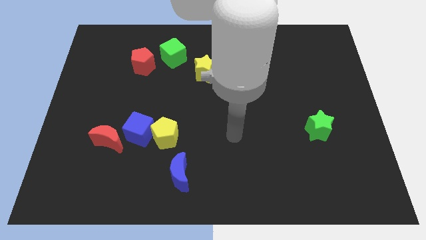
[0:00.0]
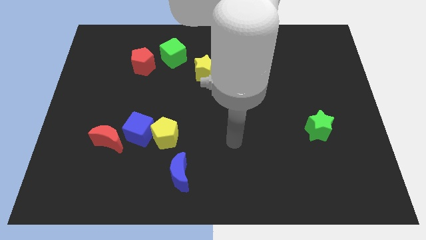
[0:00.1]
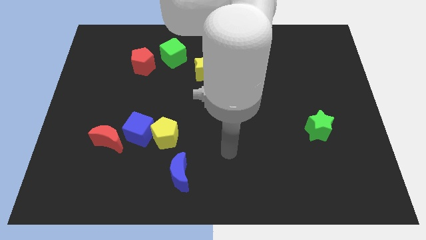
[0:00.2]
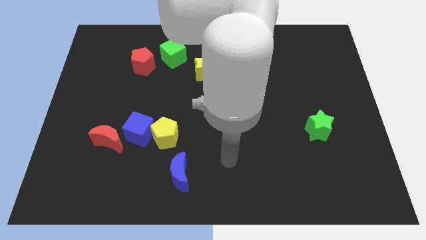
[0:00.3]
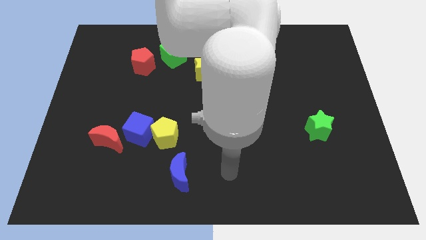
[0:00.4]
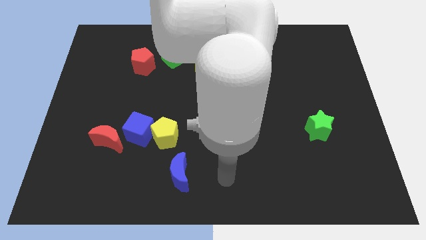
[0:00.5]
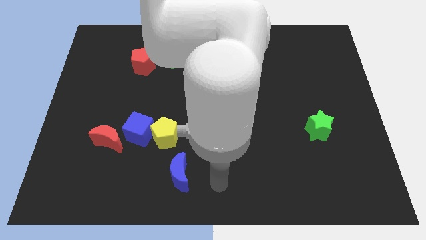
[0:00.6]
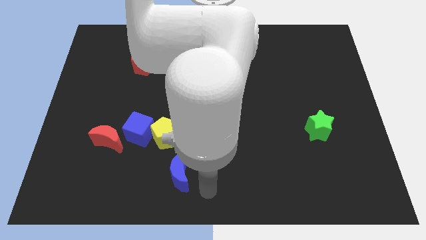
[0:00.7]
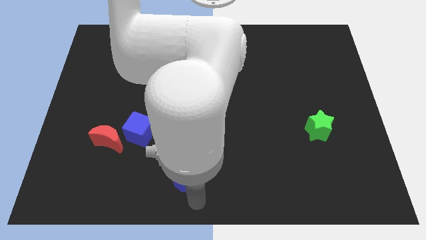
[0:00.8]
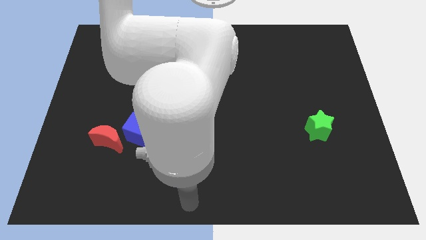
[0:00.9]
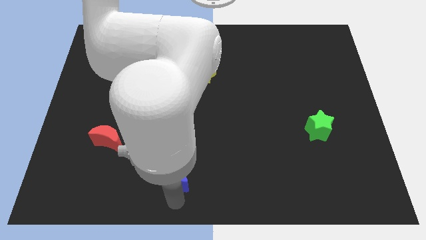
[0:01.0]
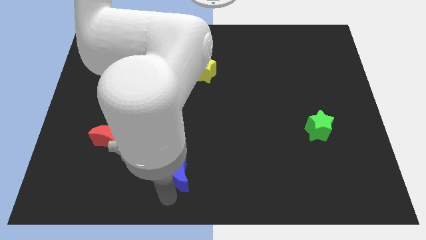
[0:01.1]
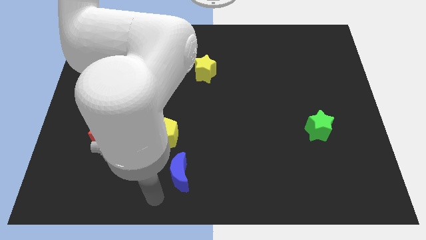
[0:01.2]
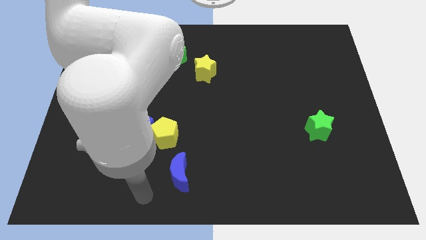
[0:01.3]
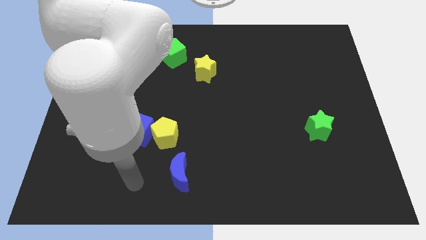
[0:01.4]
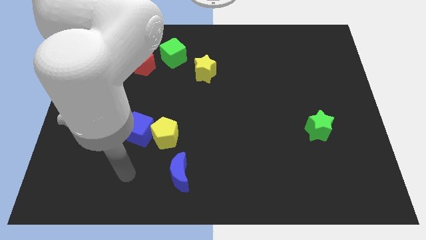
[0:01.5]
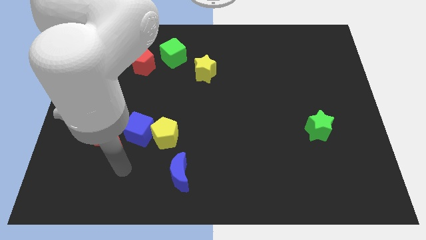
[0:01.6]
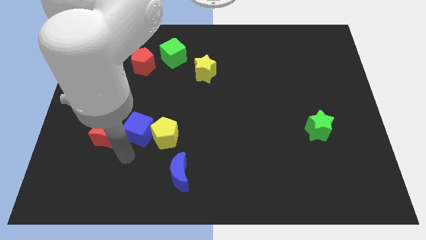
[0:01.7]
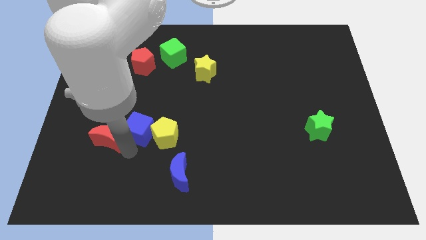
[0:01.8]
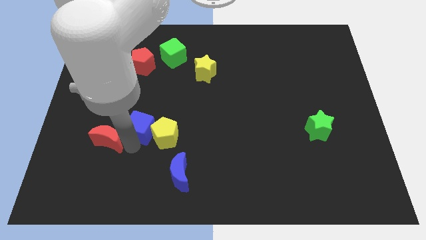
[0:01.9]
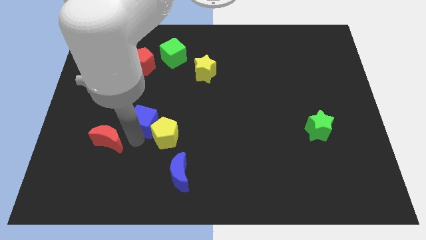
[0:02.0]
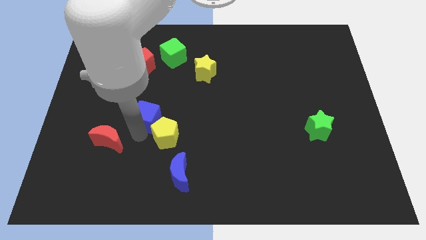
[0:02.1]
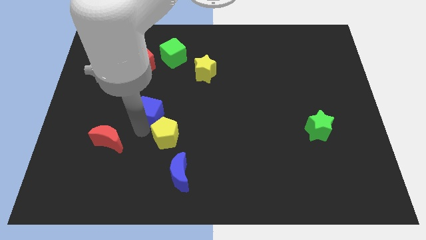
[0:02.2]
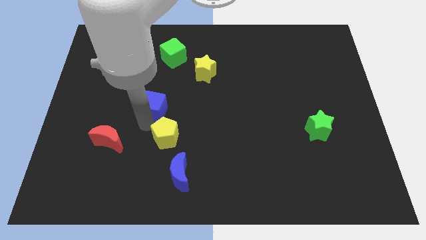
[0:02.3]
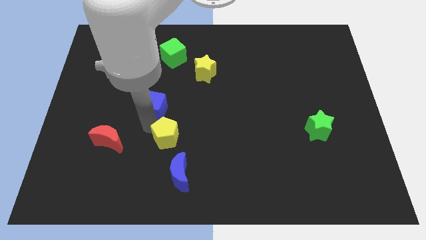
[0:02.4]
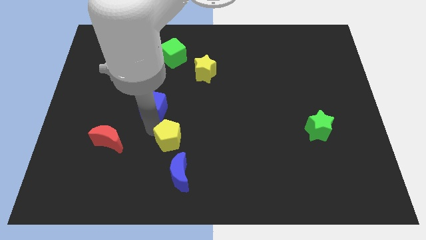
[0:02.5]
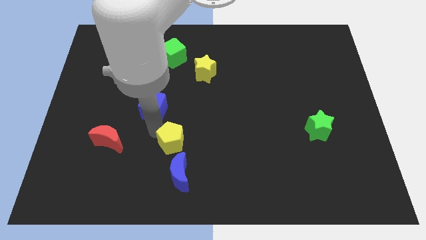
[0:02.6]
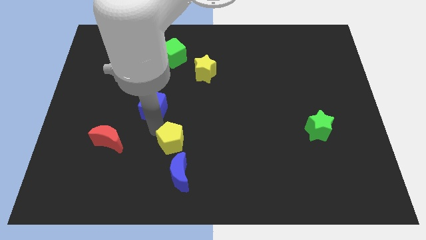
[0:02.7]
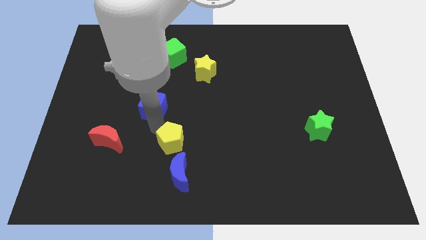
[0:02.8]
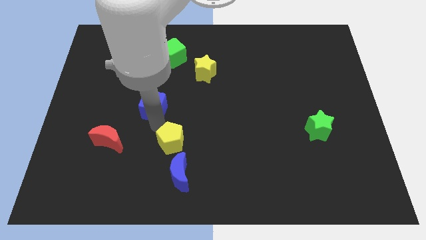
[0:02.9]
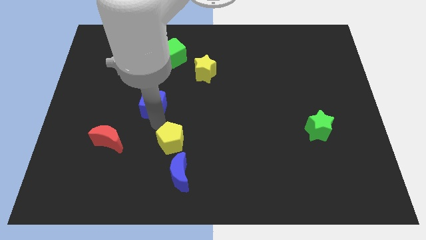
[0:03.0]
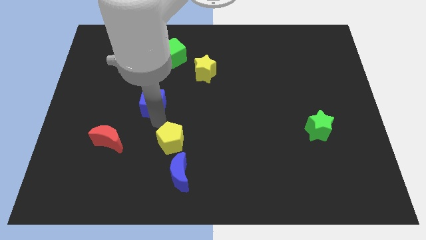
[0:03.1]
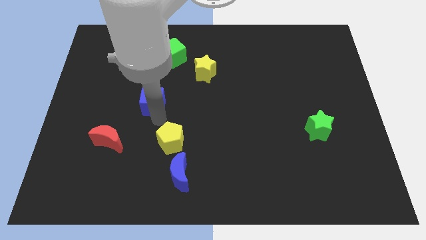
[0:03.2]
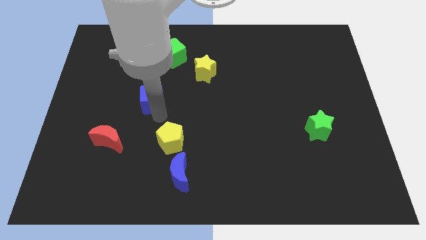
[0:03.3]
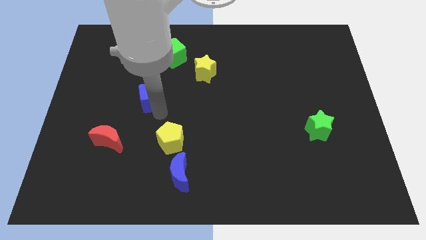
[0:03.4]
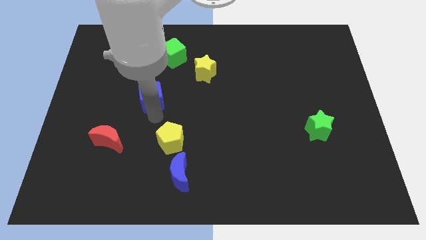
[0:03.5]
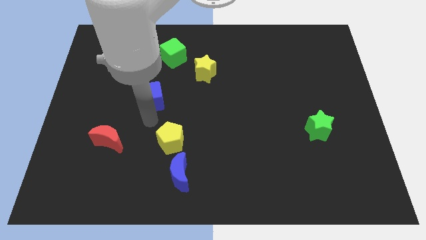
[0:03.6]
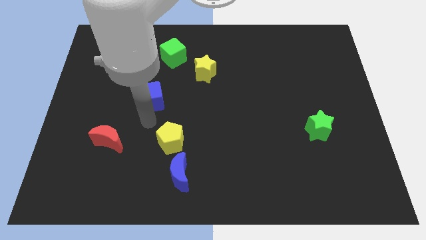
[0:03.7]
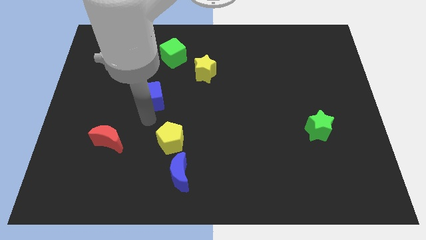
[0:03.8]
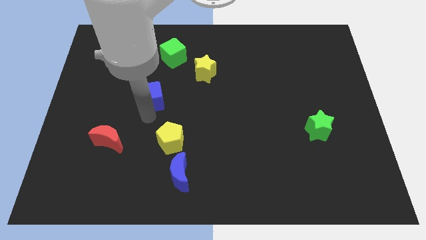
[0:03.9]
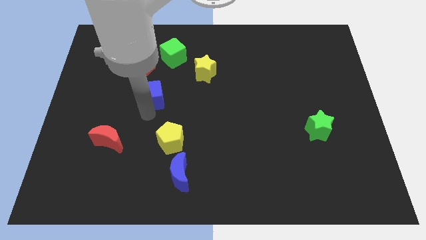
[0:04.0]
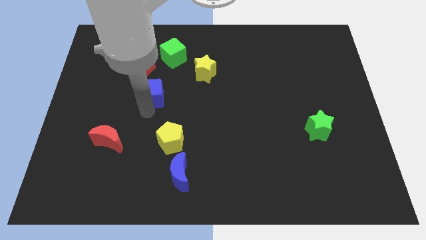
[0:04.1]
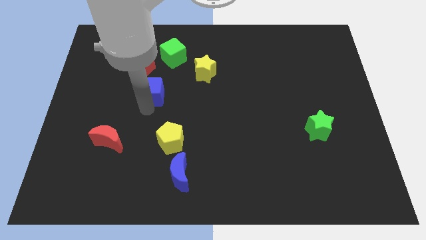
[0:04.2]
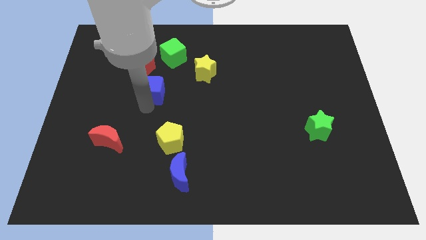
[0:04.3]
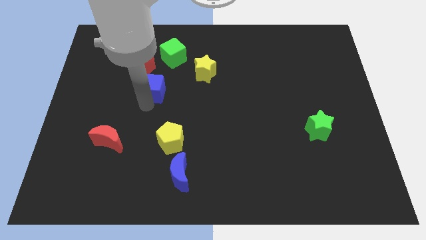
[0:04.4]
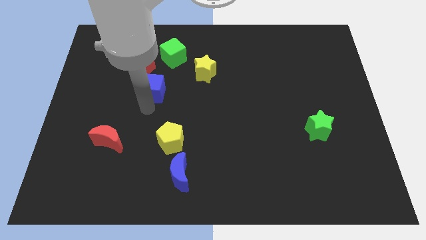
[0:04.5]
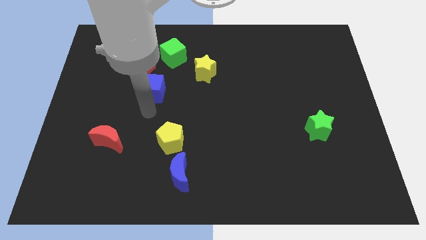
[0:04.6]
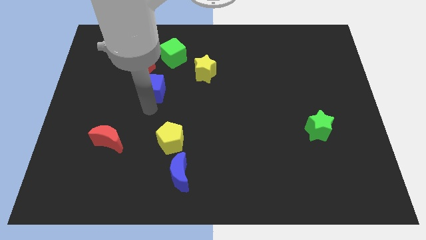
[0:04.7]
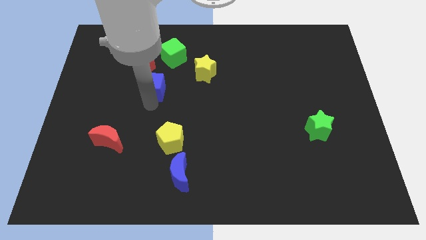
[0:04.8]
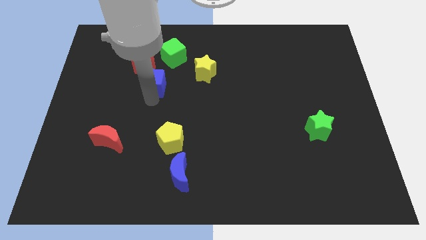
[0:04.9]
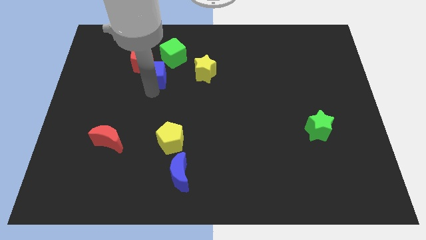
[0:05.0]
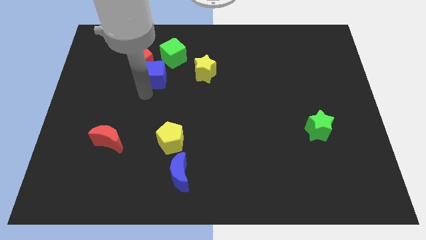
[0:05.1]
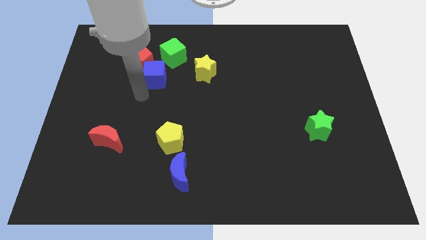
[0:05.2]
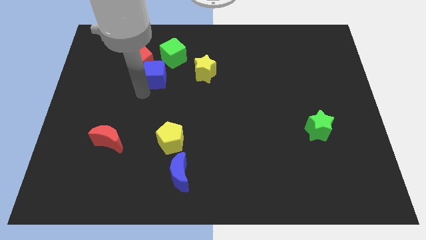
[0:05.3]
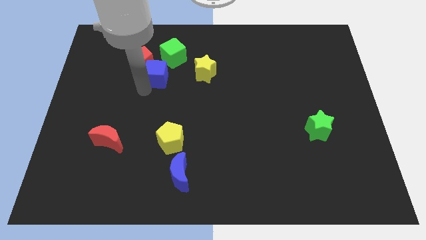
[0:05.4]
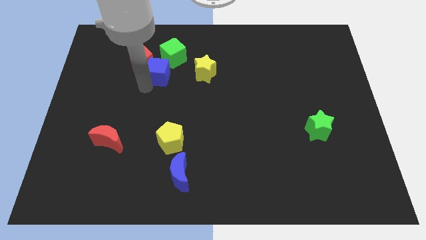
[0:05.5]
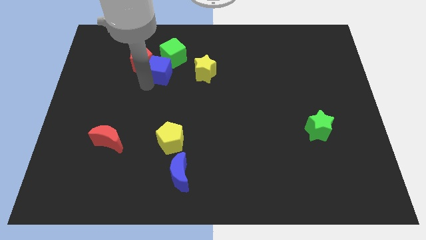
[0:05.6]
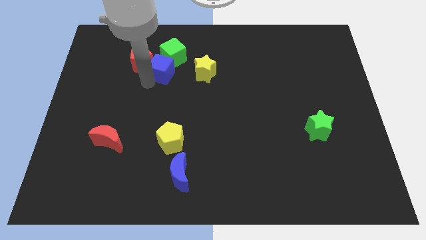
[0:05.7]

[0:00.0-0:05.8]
push the blue cube close to the green cube

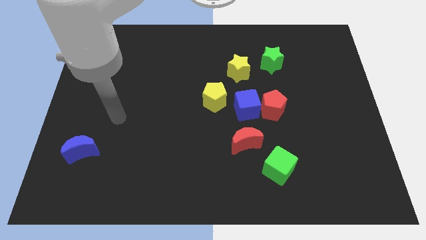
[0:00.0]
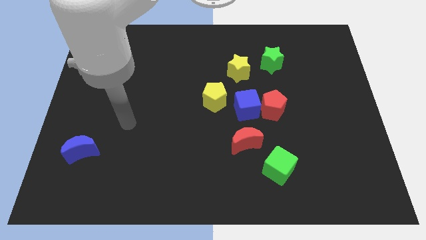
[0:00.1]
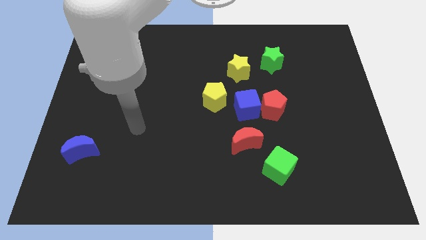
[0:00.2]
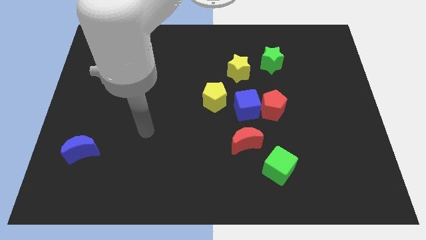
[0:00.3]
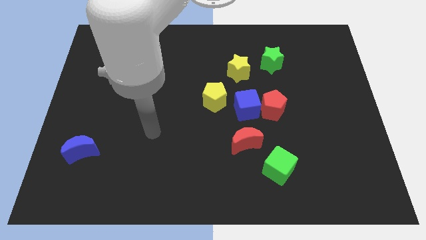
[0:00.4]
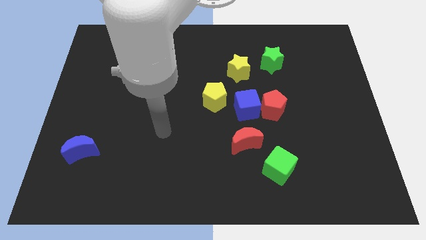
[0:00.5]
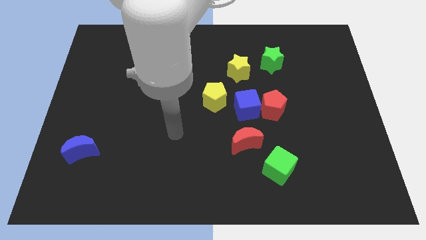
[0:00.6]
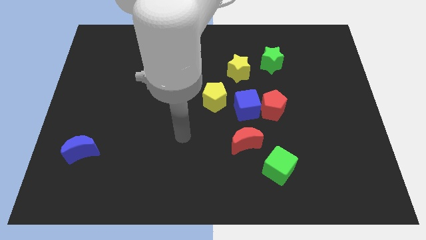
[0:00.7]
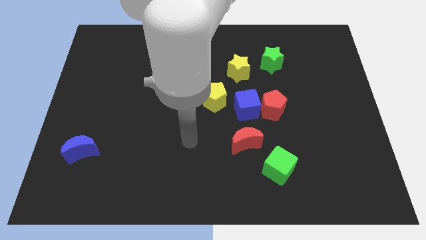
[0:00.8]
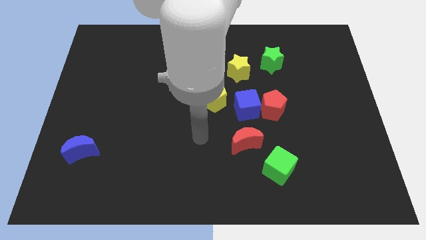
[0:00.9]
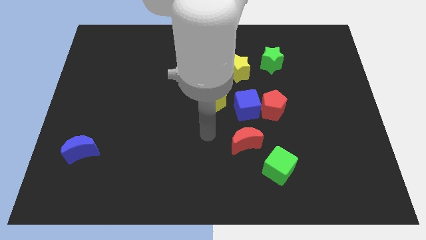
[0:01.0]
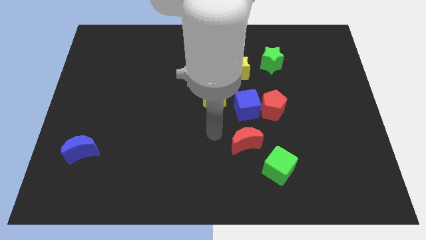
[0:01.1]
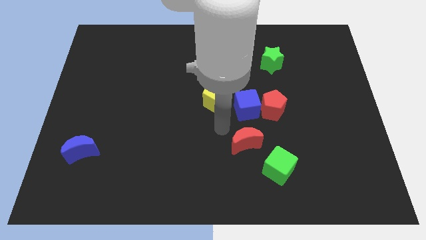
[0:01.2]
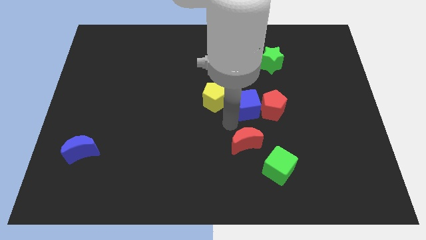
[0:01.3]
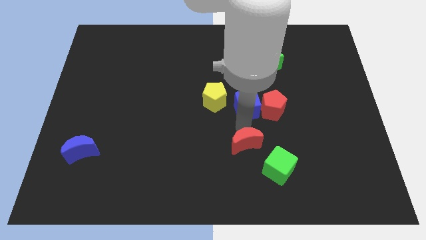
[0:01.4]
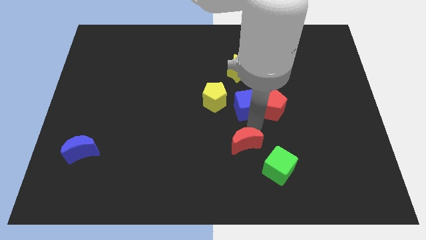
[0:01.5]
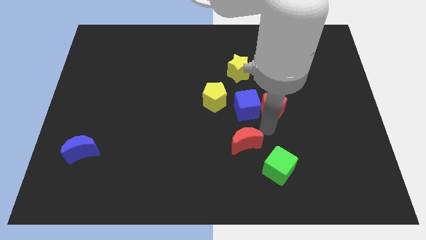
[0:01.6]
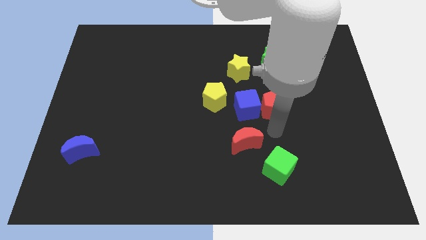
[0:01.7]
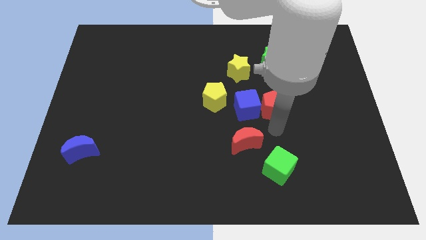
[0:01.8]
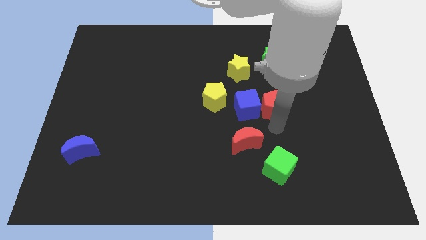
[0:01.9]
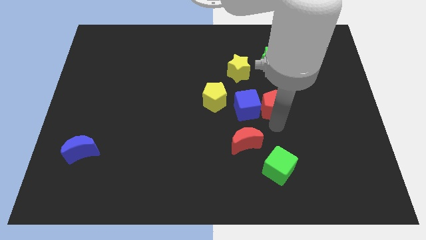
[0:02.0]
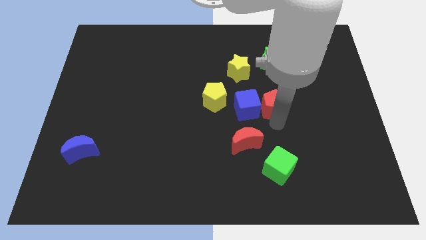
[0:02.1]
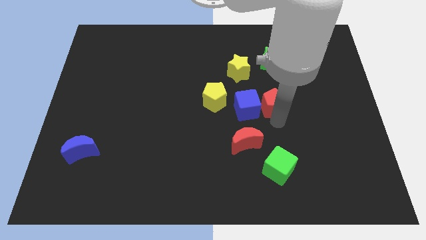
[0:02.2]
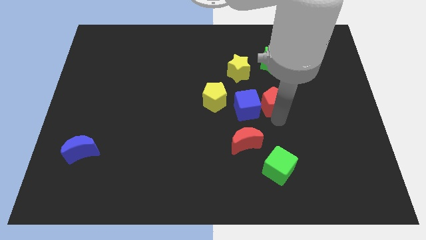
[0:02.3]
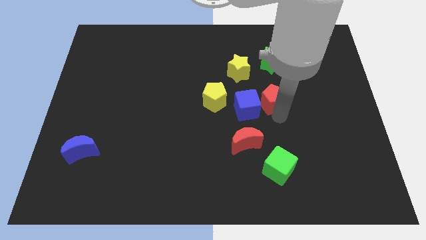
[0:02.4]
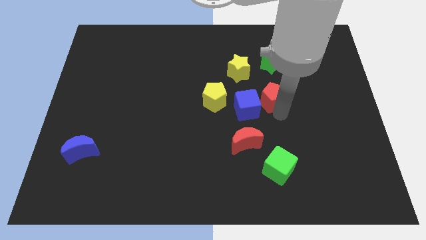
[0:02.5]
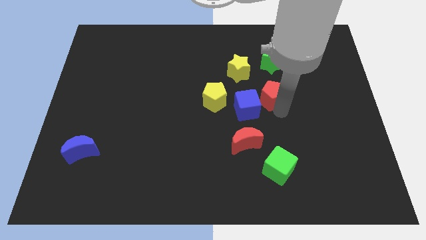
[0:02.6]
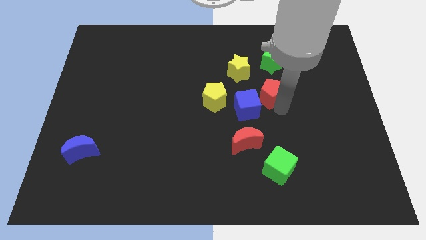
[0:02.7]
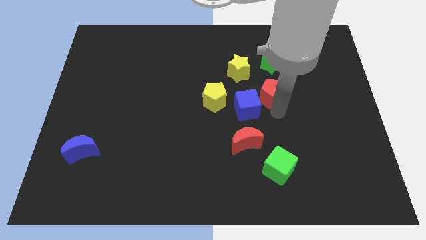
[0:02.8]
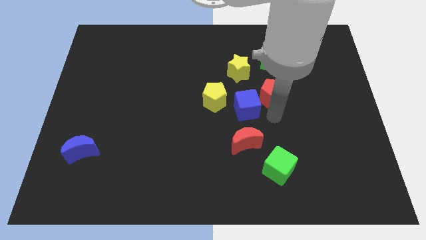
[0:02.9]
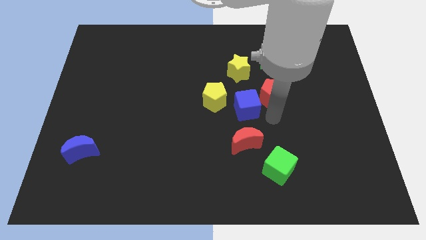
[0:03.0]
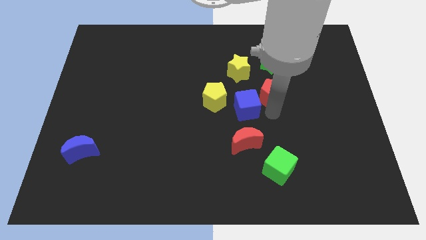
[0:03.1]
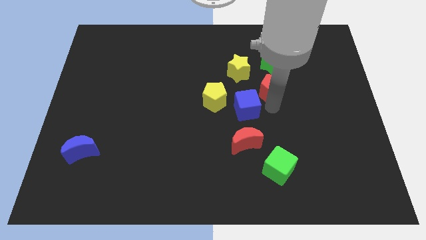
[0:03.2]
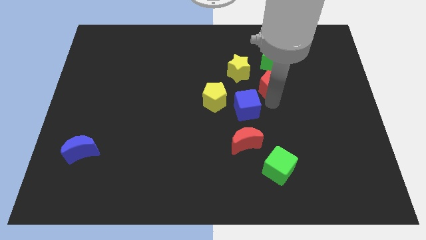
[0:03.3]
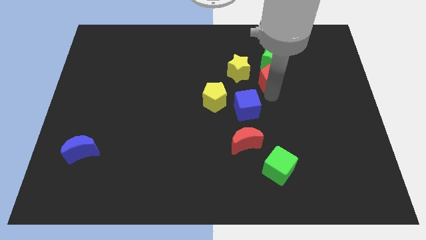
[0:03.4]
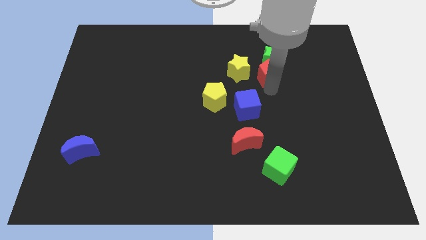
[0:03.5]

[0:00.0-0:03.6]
move the red pentagon close to the green star
